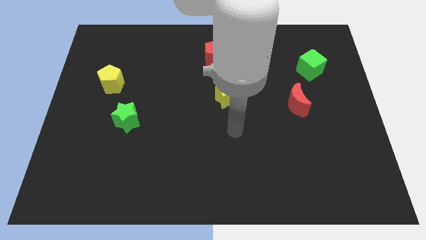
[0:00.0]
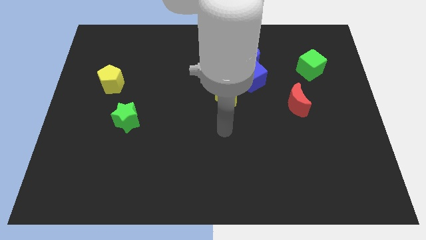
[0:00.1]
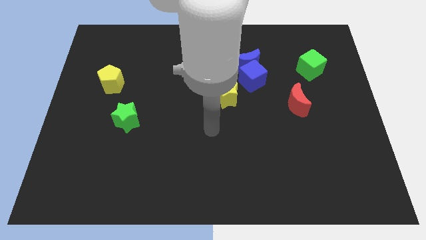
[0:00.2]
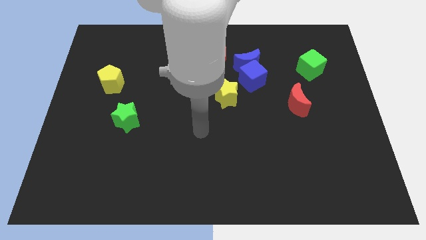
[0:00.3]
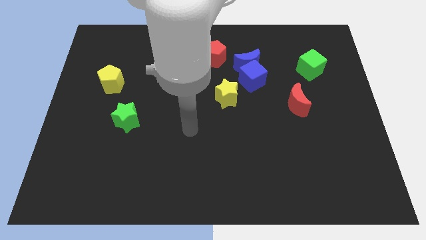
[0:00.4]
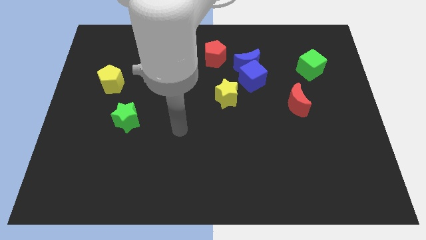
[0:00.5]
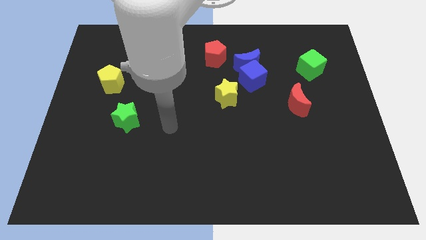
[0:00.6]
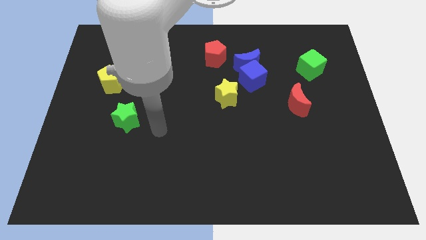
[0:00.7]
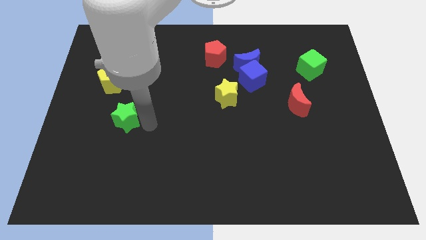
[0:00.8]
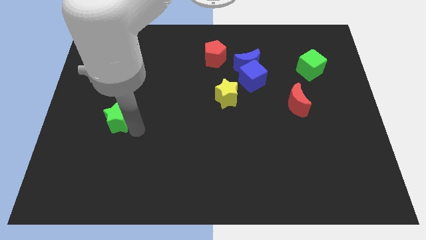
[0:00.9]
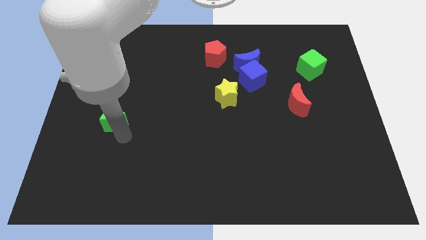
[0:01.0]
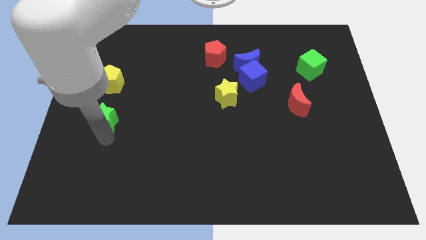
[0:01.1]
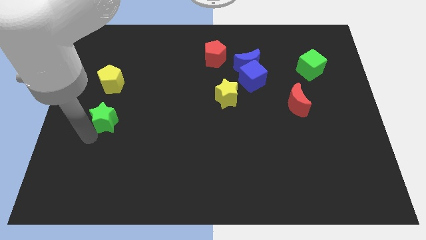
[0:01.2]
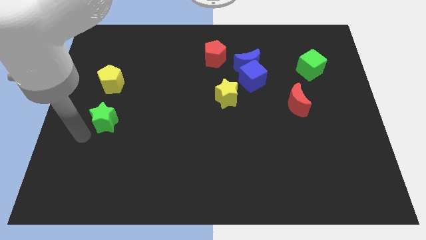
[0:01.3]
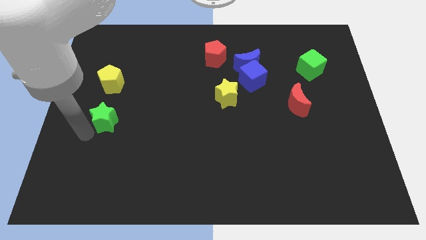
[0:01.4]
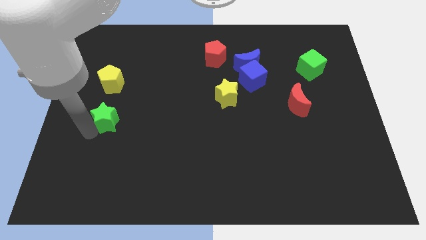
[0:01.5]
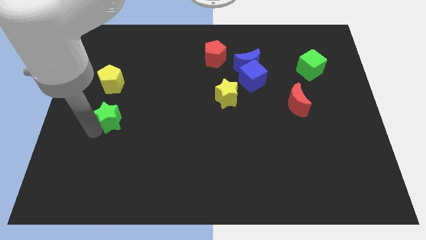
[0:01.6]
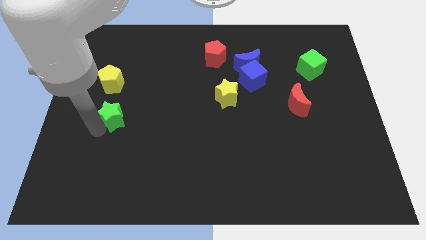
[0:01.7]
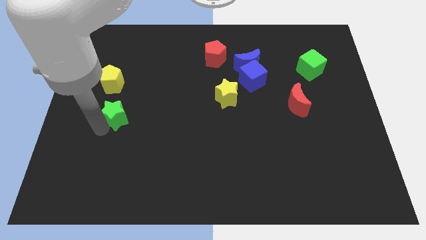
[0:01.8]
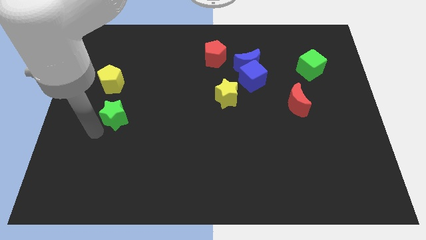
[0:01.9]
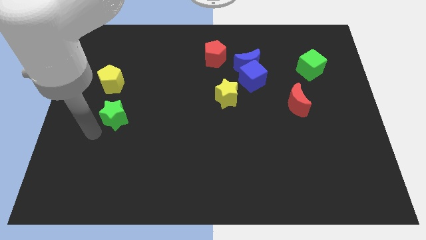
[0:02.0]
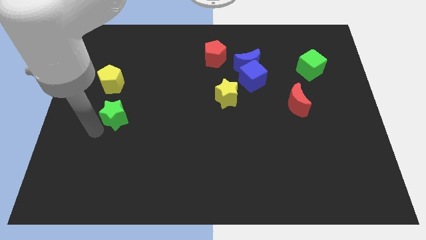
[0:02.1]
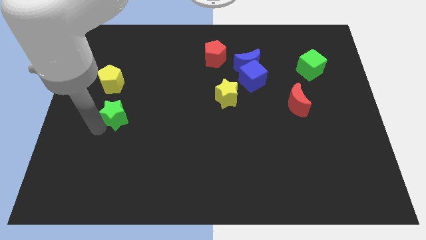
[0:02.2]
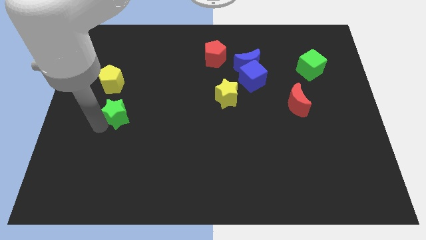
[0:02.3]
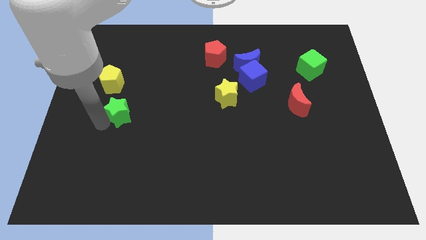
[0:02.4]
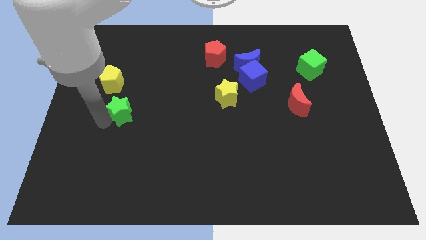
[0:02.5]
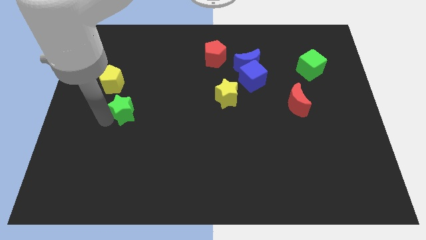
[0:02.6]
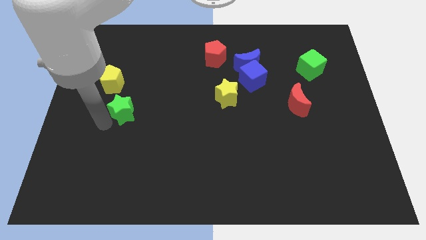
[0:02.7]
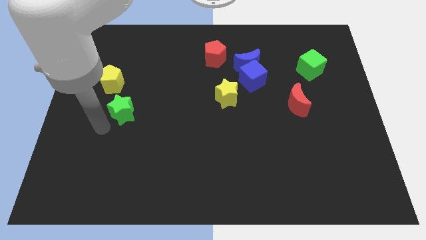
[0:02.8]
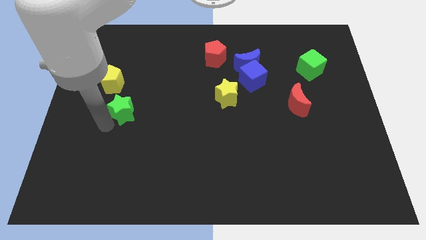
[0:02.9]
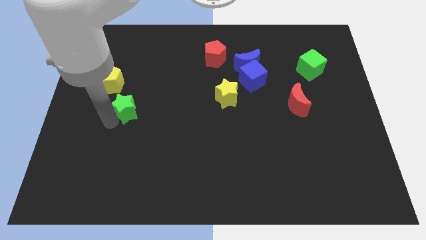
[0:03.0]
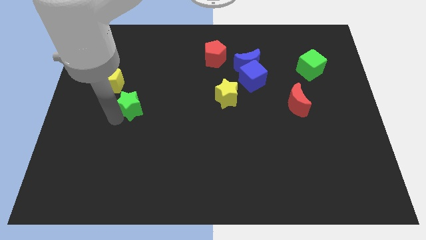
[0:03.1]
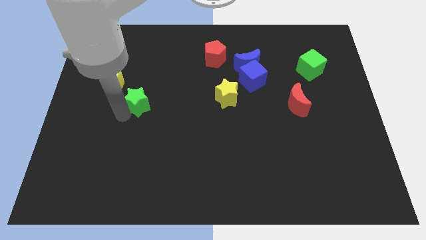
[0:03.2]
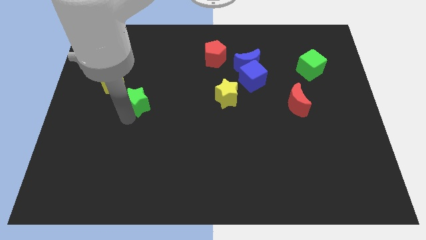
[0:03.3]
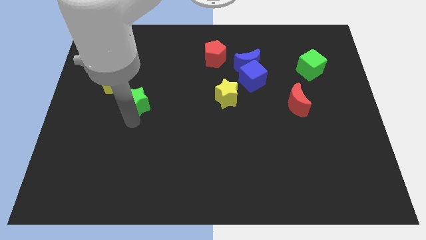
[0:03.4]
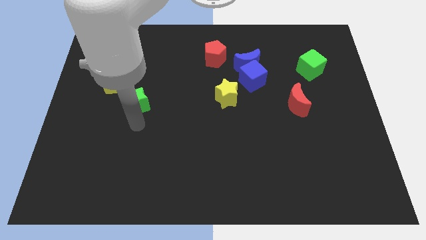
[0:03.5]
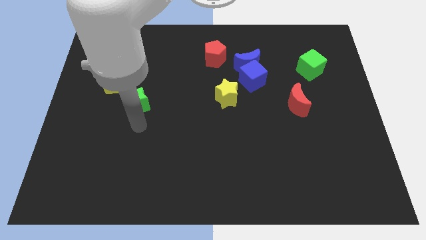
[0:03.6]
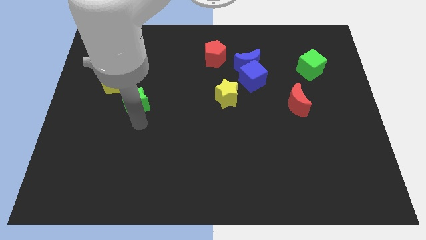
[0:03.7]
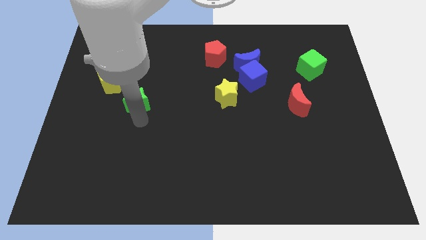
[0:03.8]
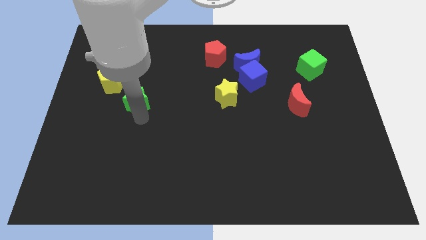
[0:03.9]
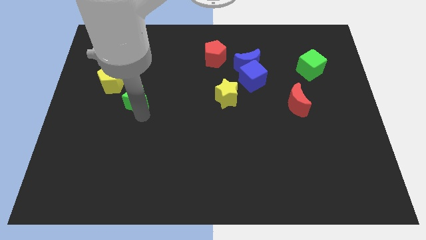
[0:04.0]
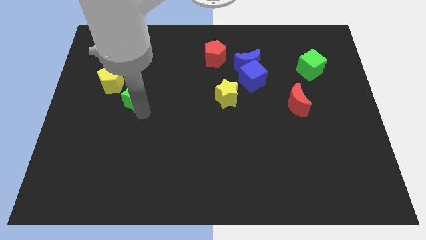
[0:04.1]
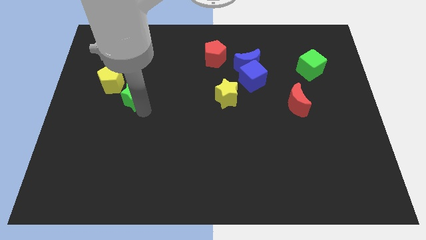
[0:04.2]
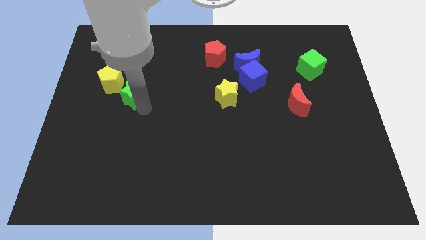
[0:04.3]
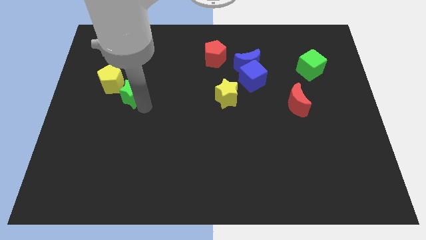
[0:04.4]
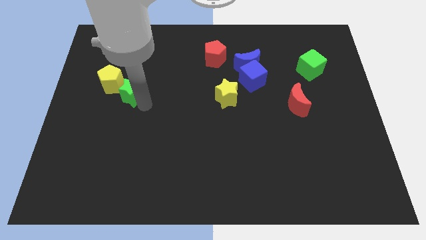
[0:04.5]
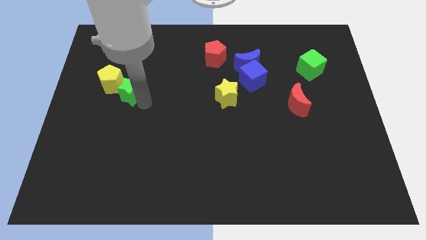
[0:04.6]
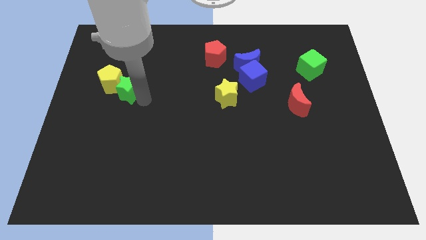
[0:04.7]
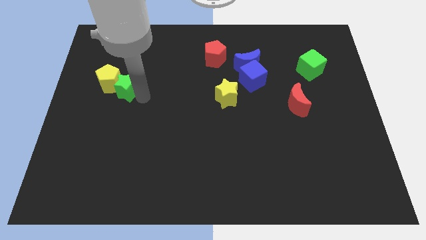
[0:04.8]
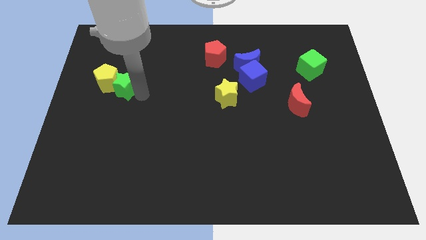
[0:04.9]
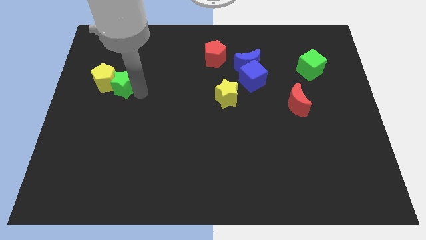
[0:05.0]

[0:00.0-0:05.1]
push the green star diagonally up and to the right of the yellow pentagon

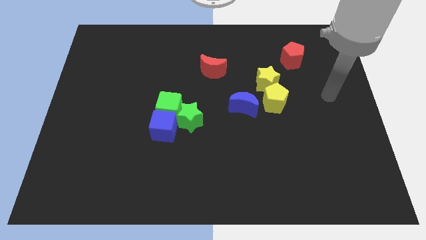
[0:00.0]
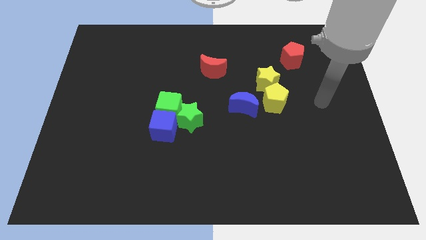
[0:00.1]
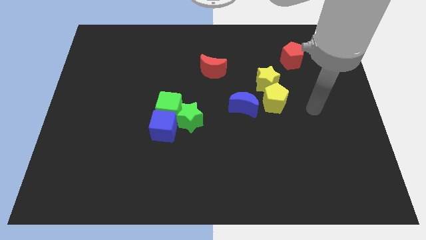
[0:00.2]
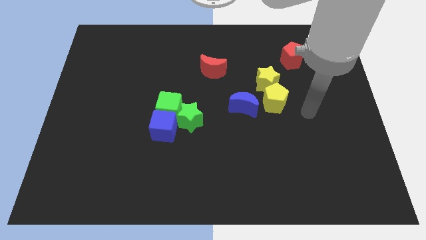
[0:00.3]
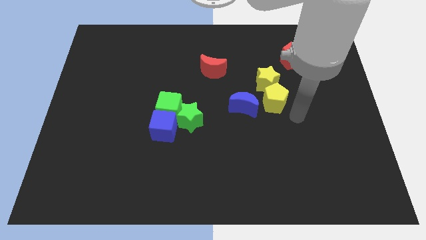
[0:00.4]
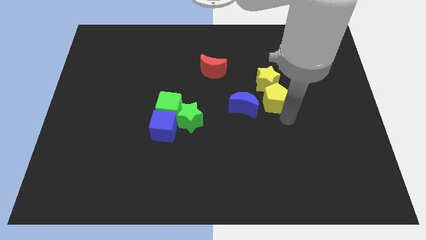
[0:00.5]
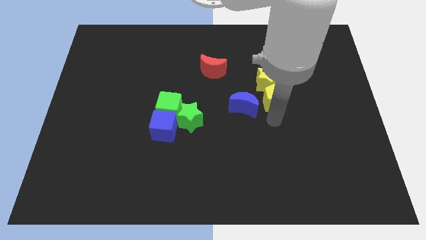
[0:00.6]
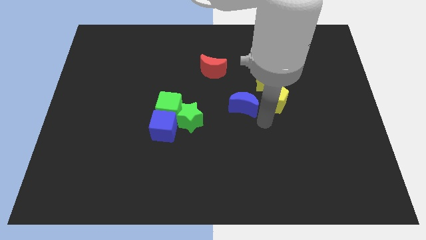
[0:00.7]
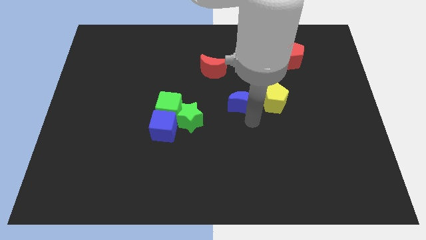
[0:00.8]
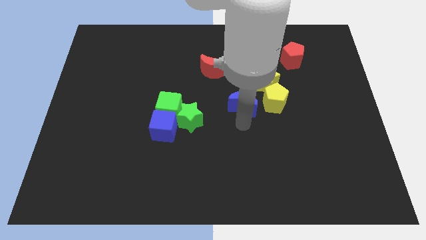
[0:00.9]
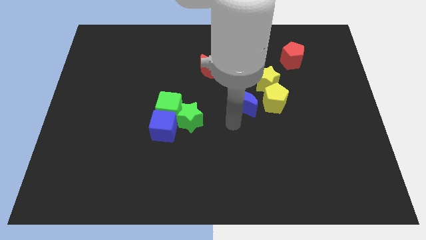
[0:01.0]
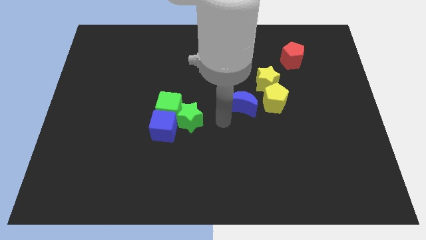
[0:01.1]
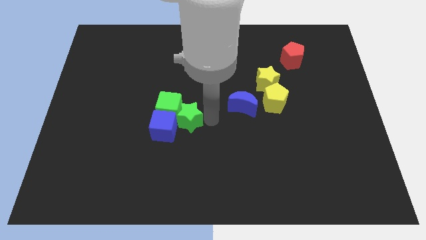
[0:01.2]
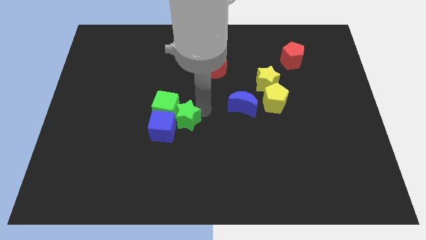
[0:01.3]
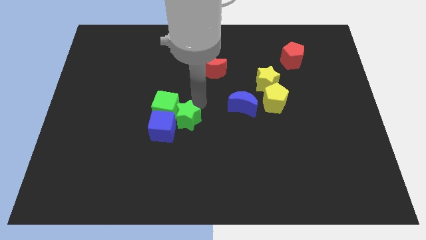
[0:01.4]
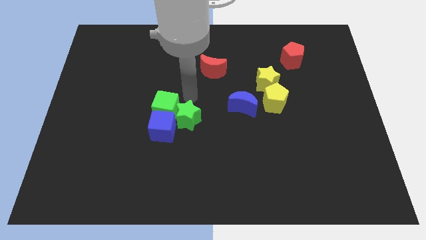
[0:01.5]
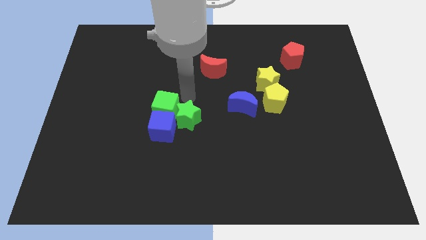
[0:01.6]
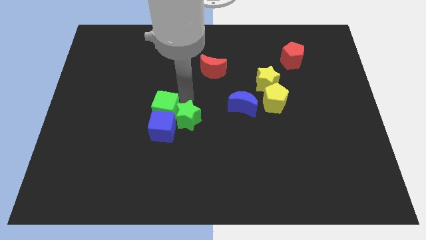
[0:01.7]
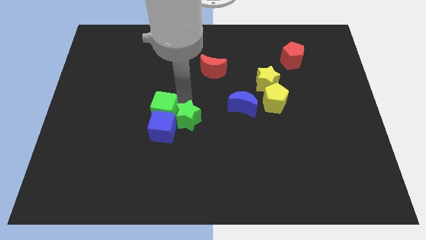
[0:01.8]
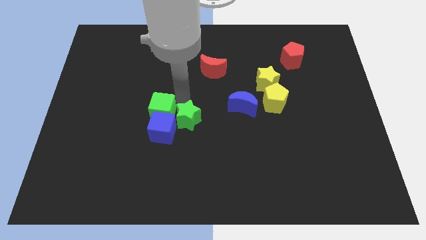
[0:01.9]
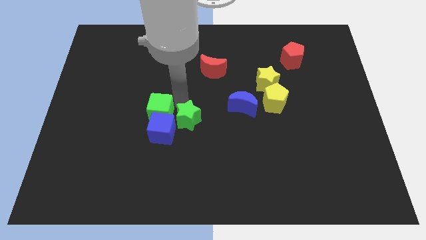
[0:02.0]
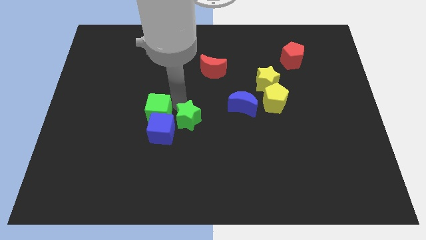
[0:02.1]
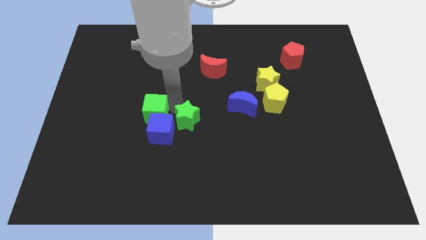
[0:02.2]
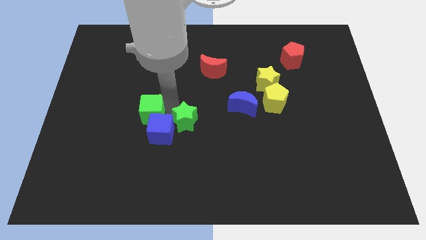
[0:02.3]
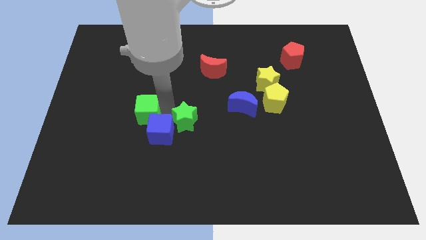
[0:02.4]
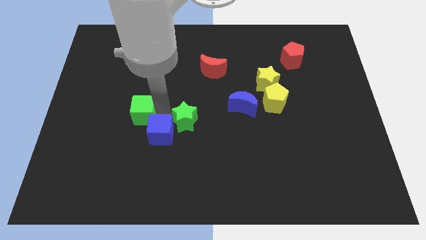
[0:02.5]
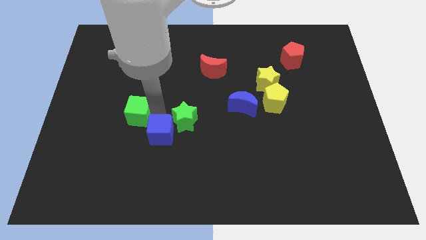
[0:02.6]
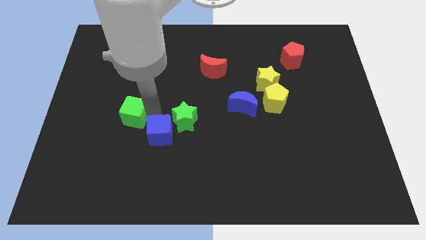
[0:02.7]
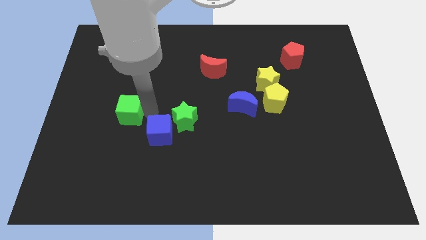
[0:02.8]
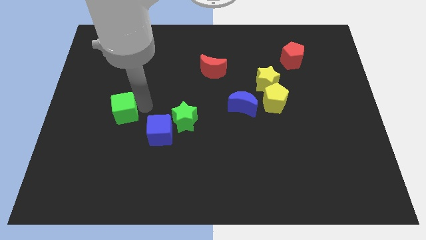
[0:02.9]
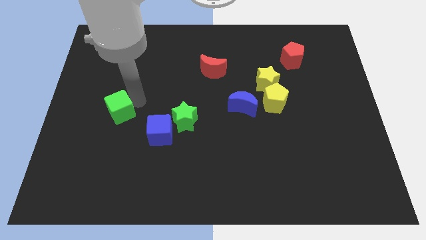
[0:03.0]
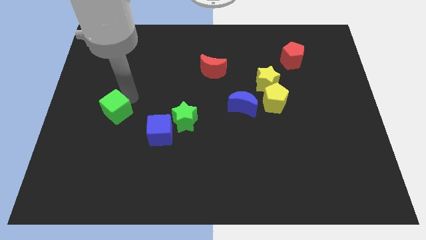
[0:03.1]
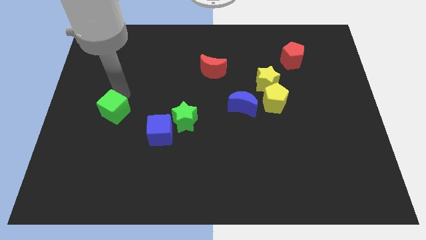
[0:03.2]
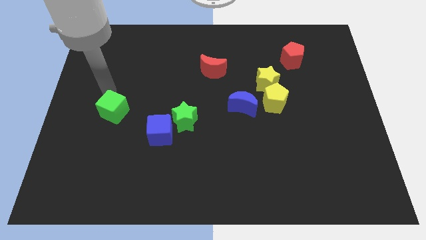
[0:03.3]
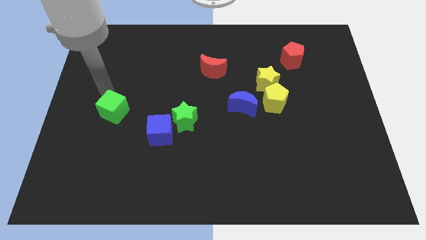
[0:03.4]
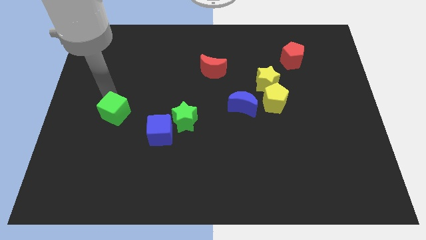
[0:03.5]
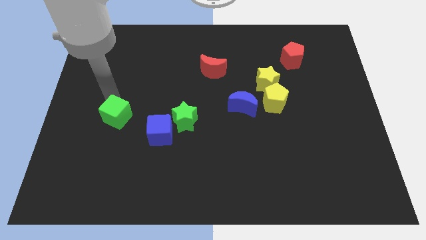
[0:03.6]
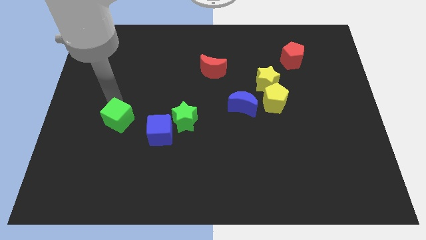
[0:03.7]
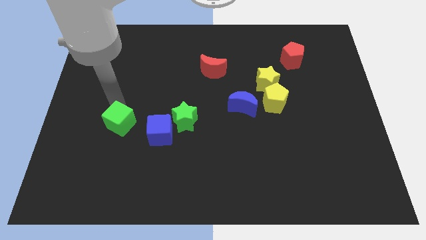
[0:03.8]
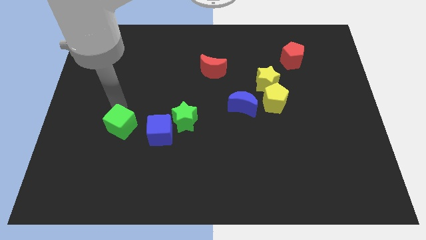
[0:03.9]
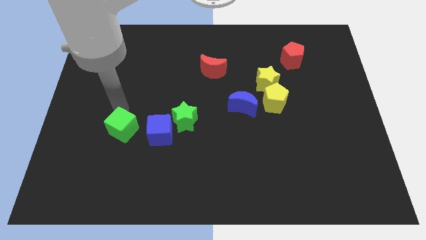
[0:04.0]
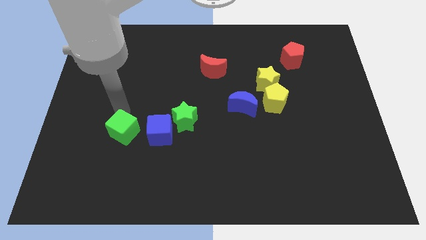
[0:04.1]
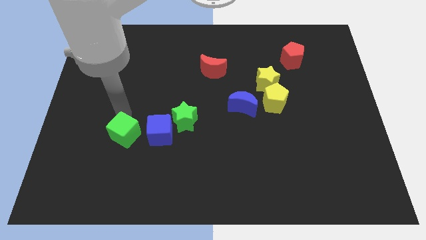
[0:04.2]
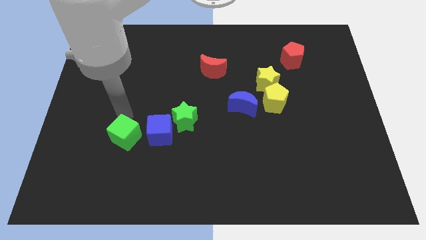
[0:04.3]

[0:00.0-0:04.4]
push the green cube to the bottom left of the blue cube
